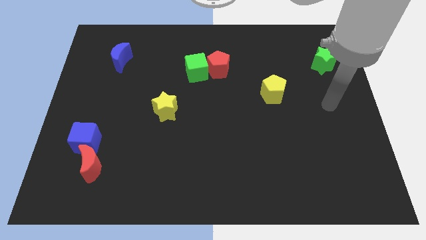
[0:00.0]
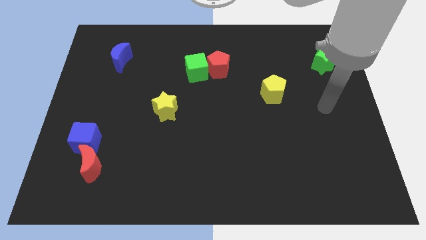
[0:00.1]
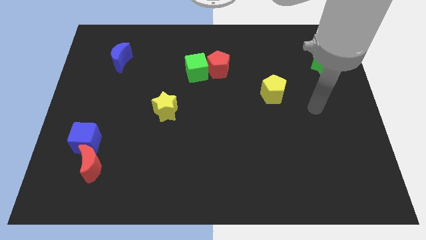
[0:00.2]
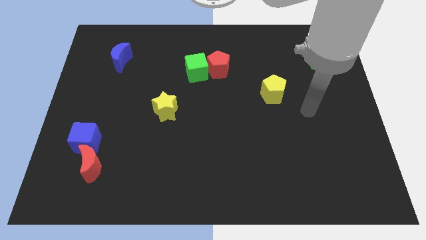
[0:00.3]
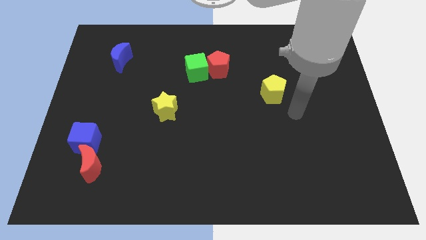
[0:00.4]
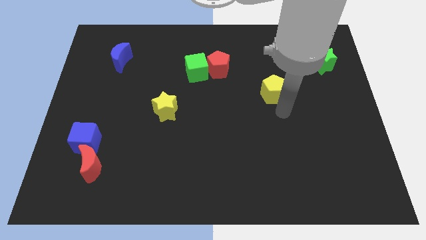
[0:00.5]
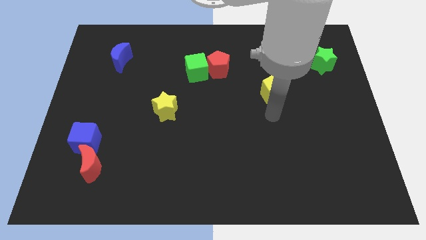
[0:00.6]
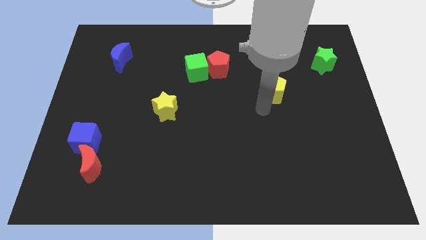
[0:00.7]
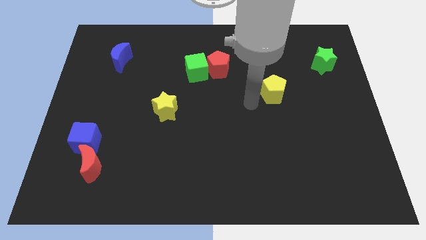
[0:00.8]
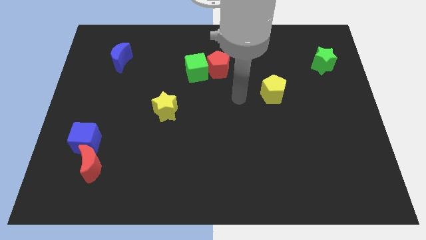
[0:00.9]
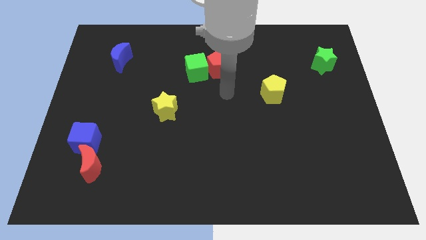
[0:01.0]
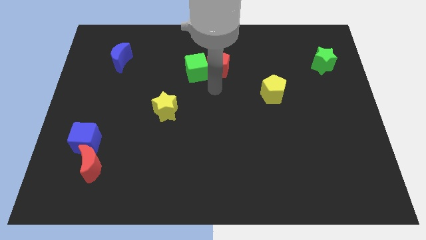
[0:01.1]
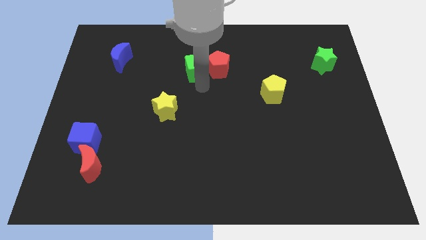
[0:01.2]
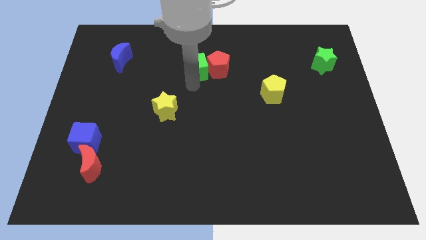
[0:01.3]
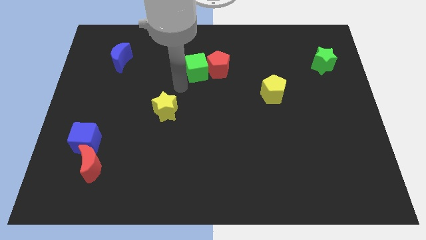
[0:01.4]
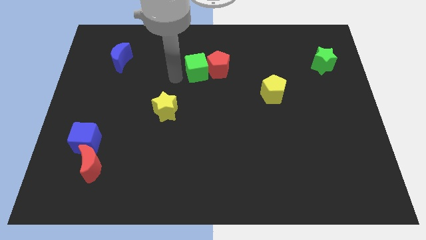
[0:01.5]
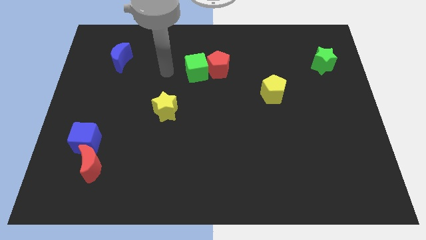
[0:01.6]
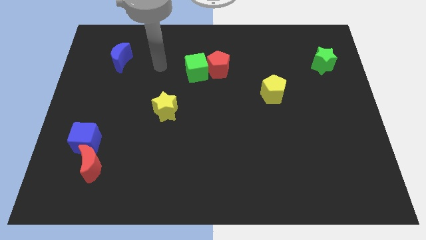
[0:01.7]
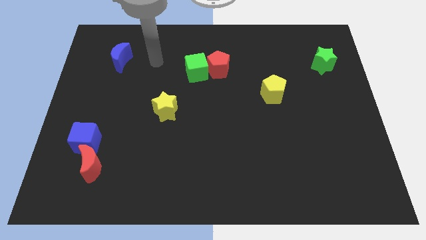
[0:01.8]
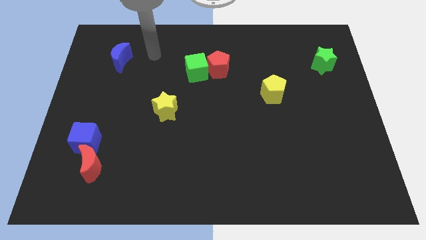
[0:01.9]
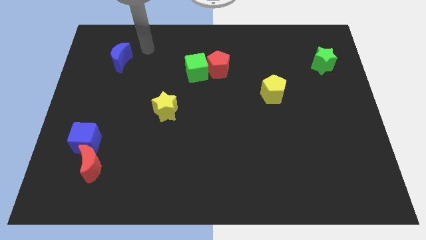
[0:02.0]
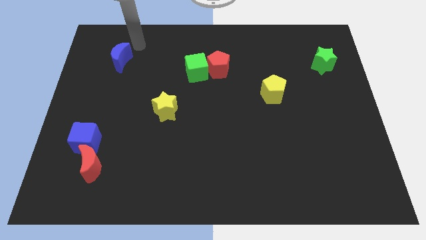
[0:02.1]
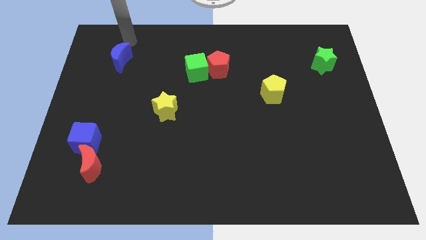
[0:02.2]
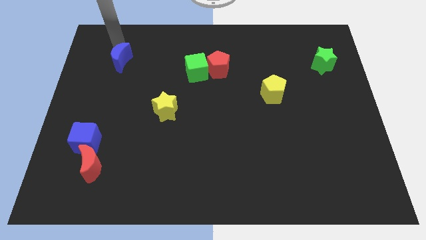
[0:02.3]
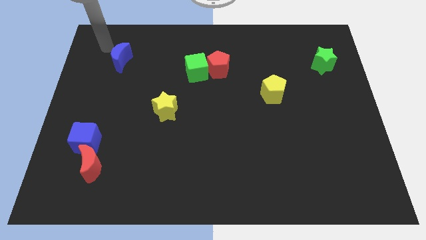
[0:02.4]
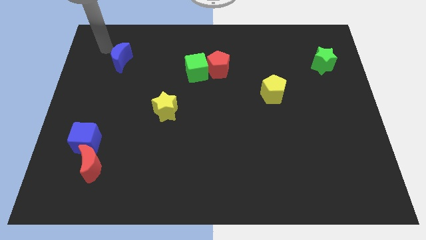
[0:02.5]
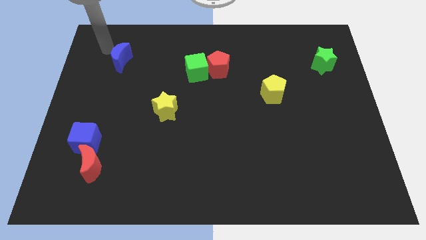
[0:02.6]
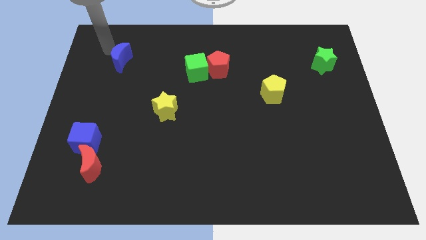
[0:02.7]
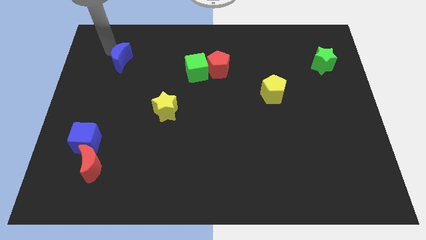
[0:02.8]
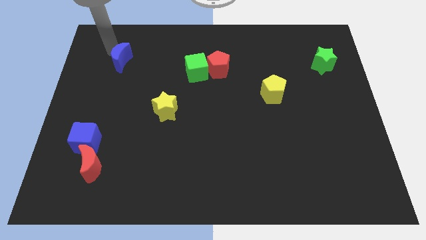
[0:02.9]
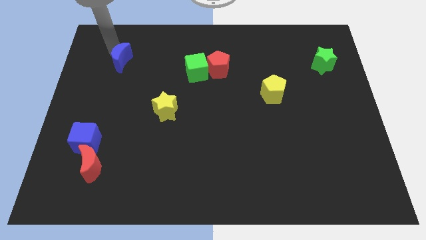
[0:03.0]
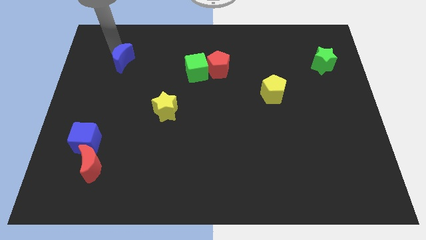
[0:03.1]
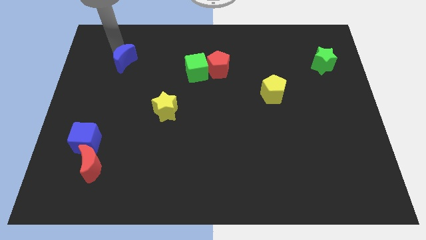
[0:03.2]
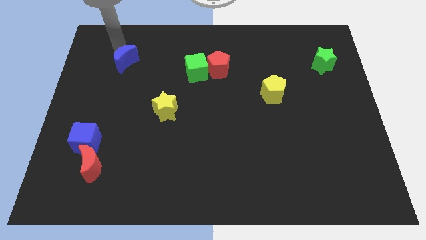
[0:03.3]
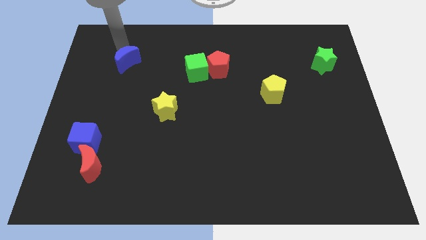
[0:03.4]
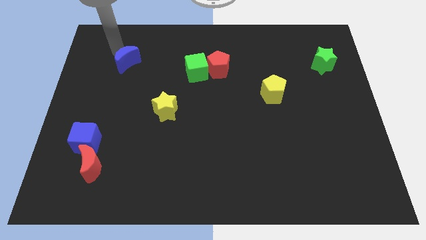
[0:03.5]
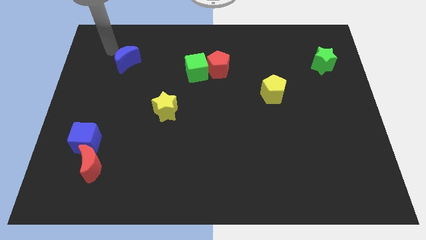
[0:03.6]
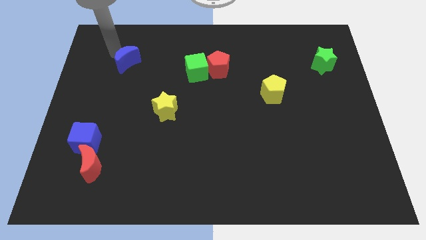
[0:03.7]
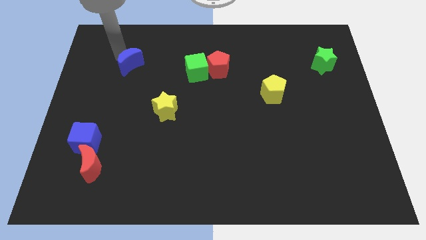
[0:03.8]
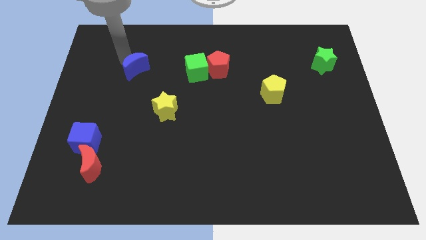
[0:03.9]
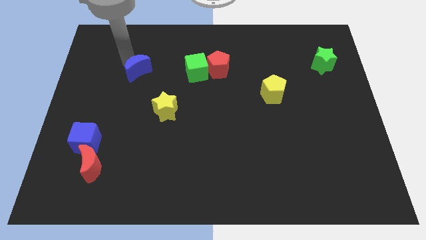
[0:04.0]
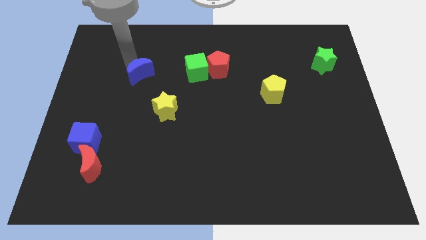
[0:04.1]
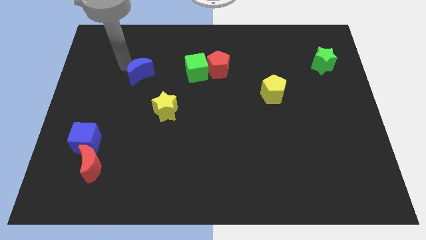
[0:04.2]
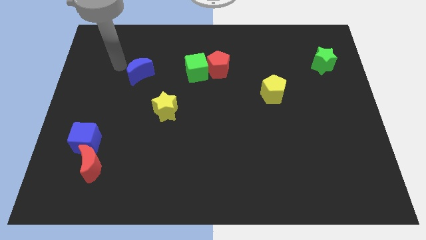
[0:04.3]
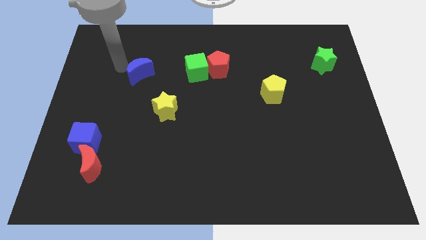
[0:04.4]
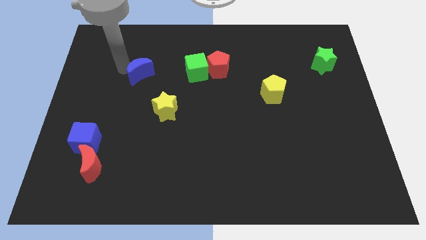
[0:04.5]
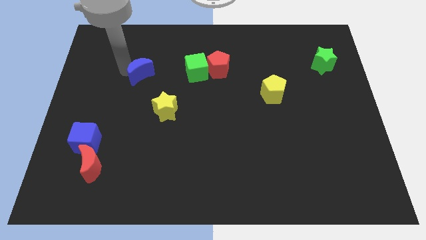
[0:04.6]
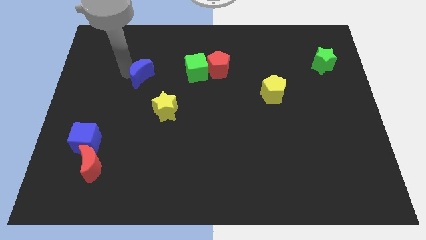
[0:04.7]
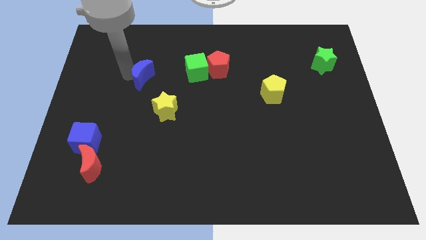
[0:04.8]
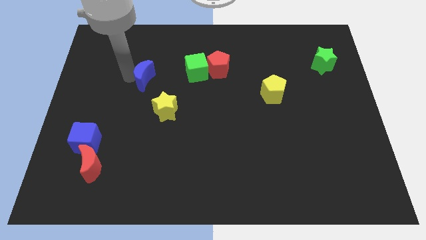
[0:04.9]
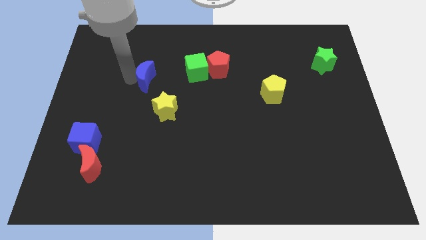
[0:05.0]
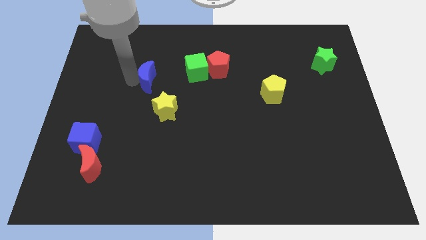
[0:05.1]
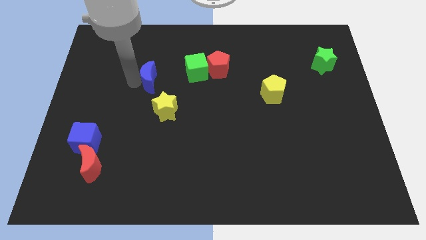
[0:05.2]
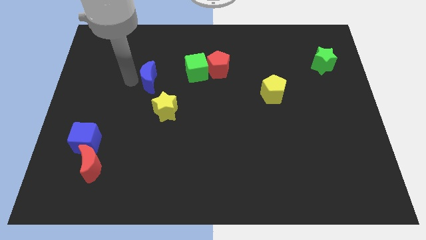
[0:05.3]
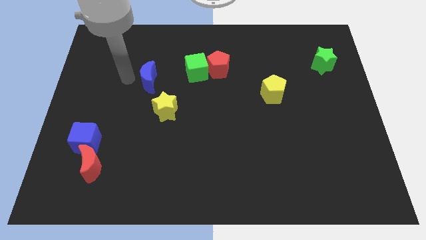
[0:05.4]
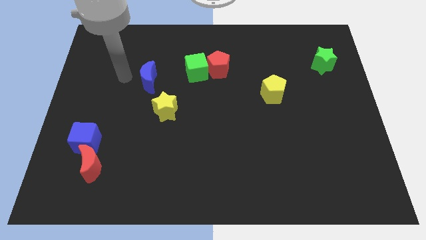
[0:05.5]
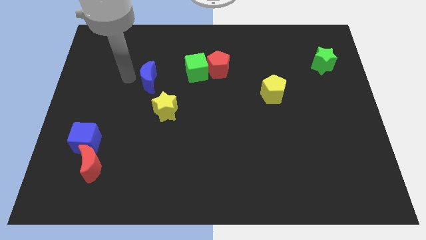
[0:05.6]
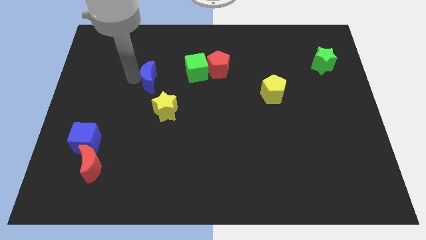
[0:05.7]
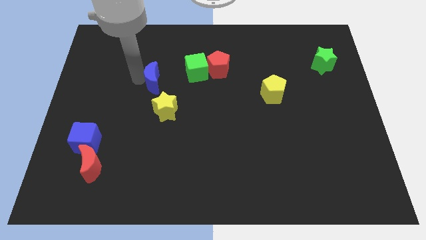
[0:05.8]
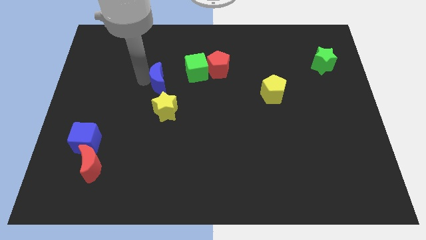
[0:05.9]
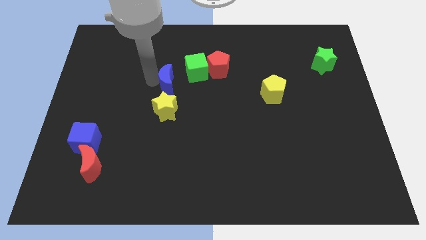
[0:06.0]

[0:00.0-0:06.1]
put the blue moon to the middle
